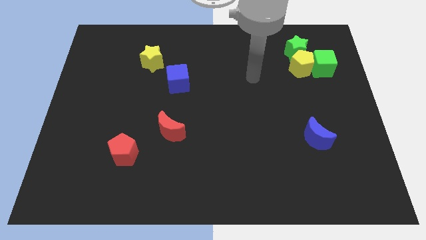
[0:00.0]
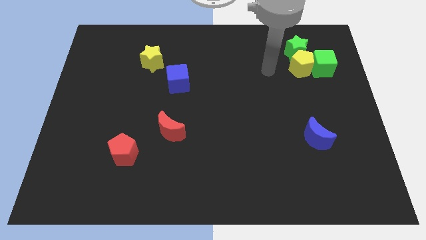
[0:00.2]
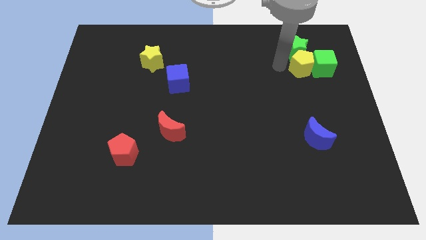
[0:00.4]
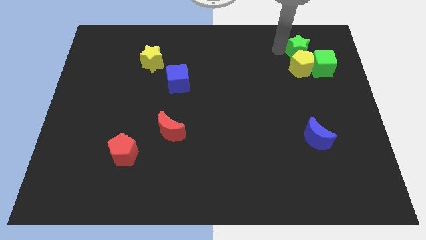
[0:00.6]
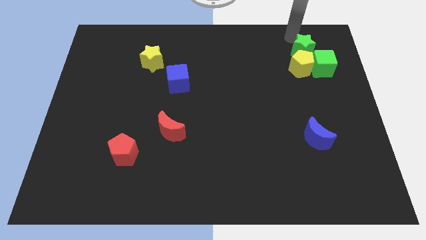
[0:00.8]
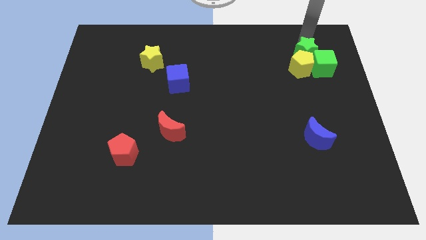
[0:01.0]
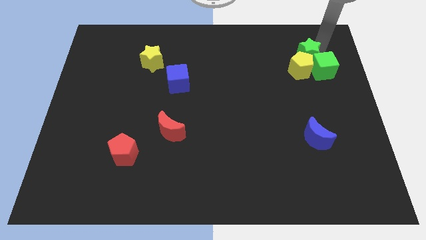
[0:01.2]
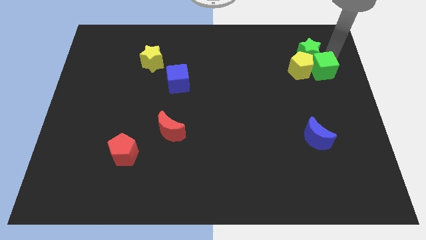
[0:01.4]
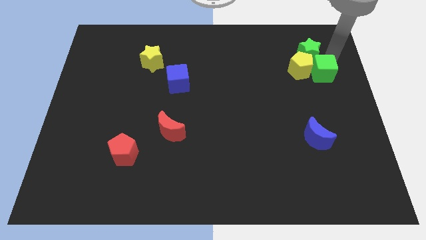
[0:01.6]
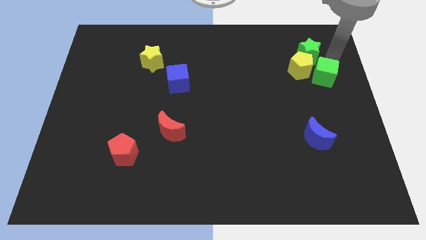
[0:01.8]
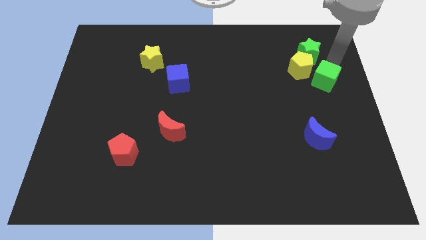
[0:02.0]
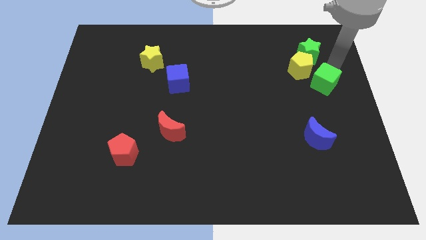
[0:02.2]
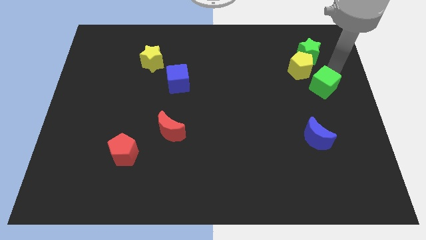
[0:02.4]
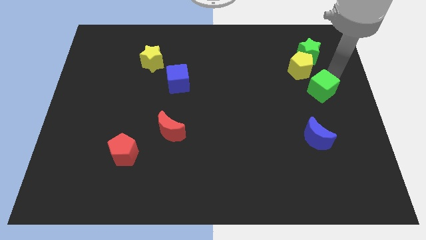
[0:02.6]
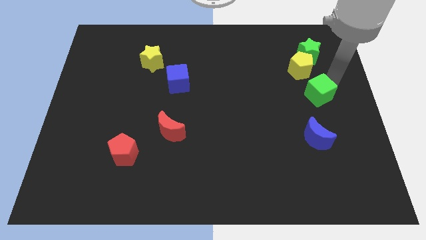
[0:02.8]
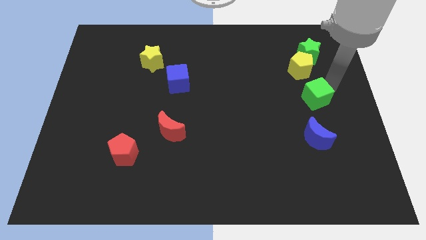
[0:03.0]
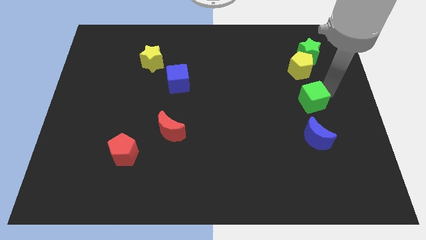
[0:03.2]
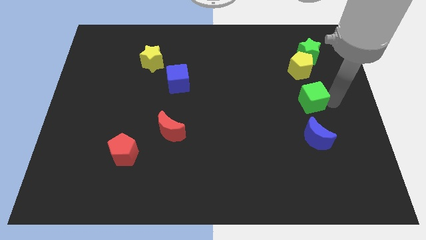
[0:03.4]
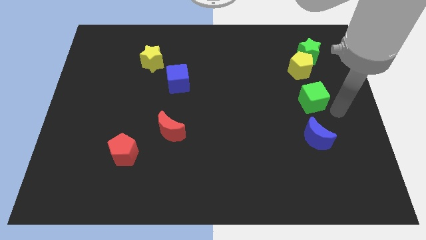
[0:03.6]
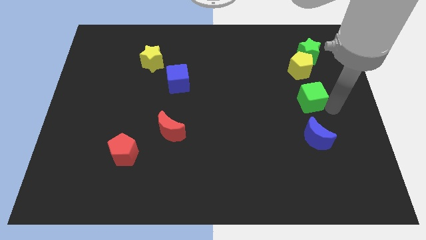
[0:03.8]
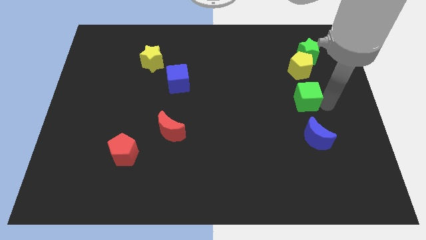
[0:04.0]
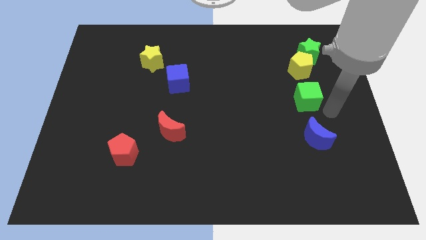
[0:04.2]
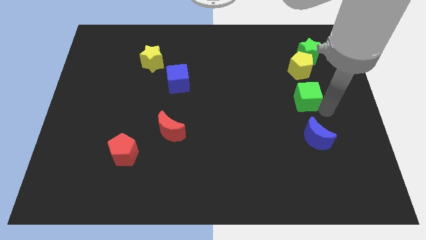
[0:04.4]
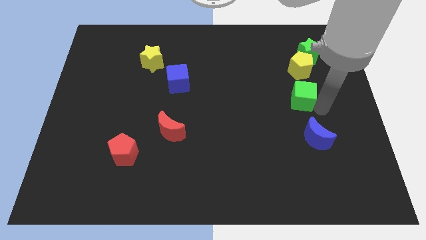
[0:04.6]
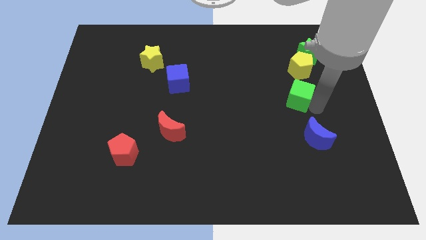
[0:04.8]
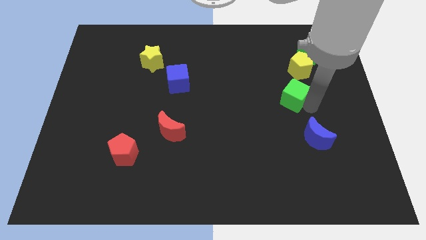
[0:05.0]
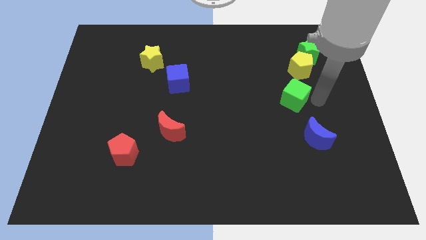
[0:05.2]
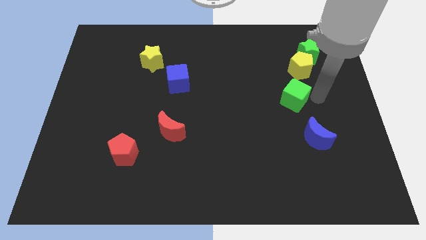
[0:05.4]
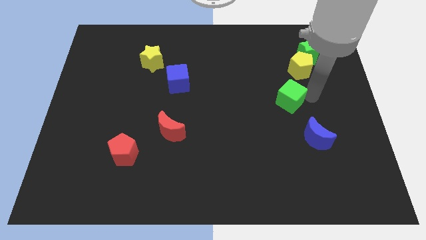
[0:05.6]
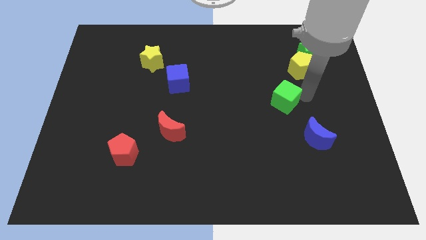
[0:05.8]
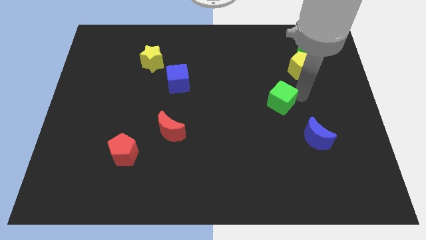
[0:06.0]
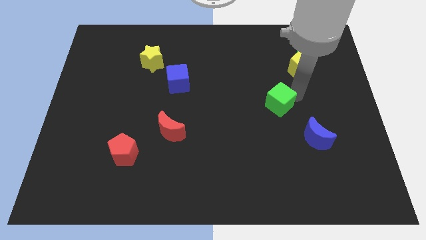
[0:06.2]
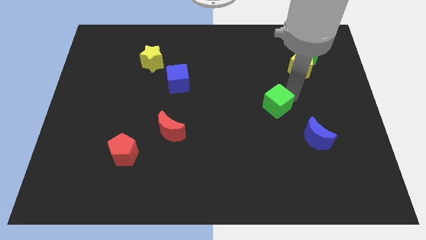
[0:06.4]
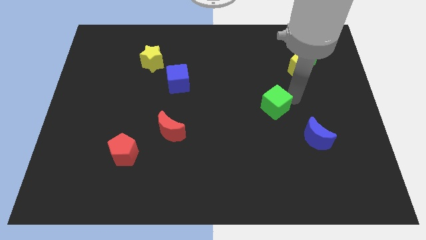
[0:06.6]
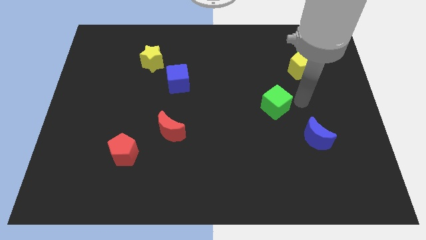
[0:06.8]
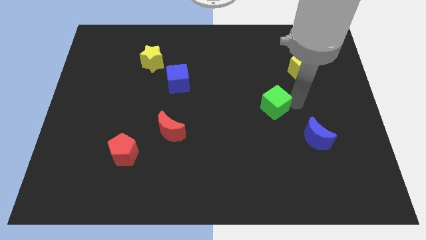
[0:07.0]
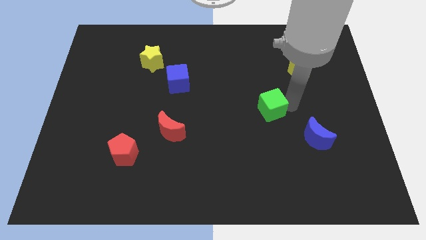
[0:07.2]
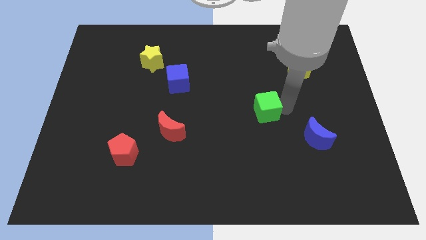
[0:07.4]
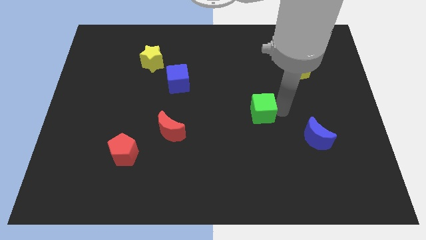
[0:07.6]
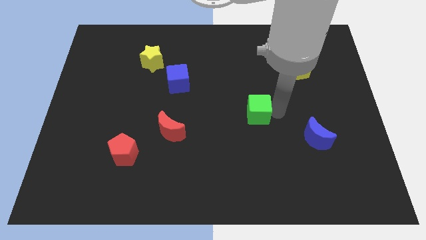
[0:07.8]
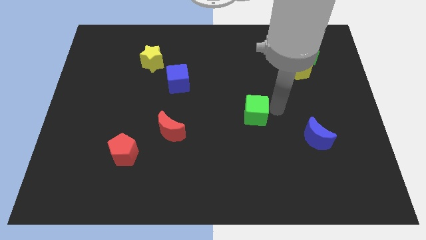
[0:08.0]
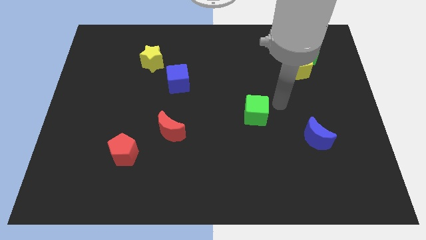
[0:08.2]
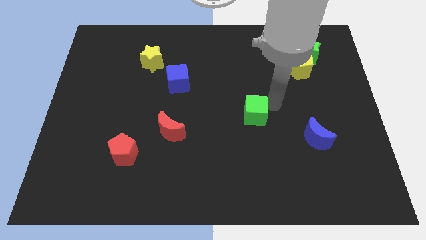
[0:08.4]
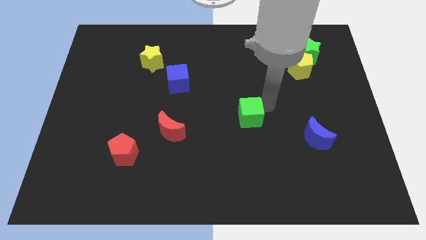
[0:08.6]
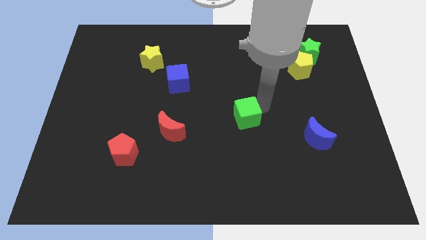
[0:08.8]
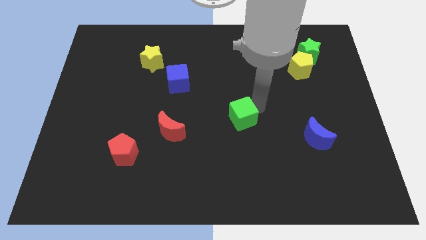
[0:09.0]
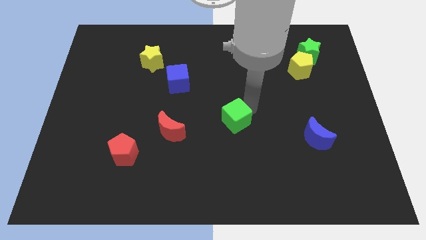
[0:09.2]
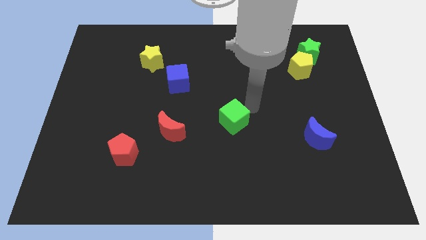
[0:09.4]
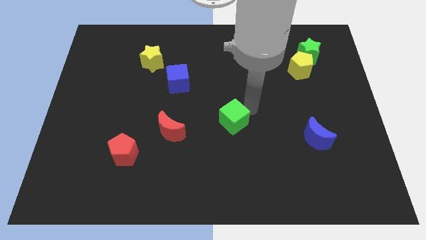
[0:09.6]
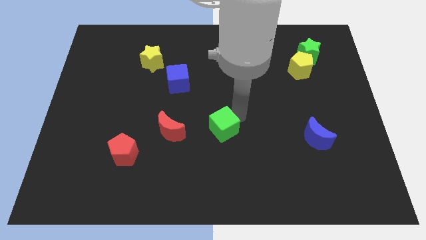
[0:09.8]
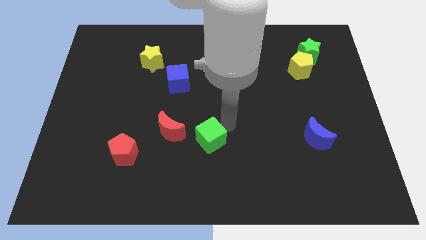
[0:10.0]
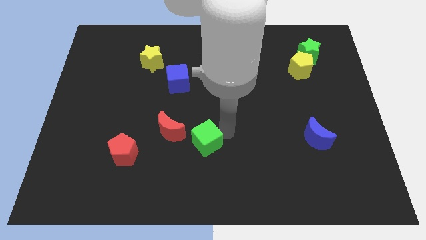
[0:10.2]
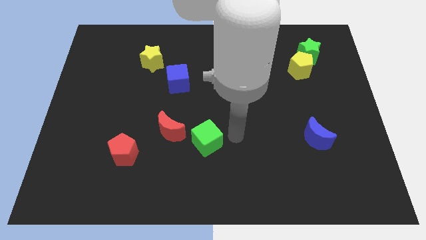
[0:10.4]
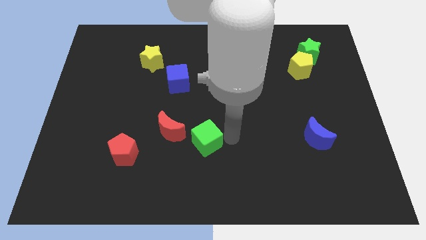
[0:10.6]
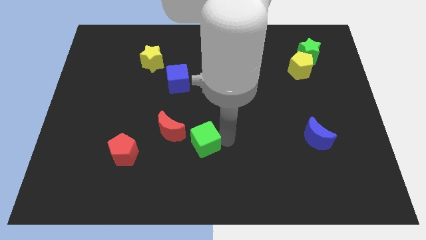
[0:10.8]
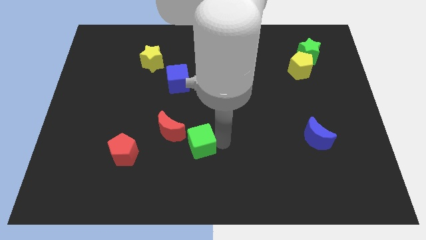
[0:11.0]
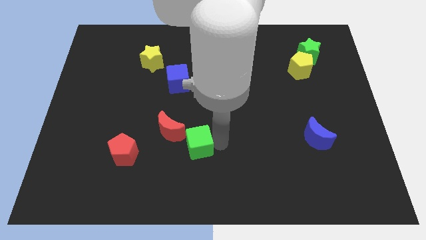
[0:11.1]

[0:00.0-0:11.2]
slide the green cube to the right of the red pentagon
